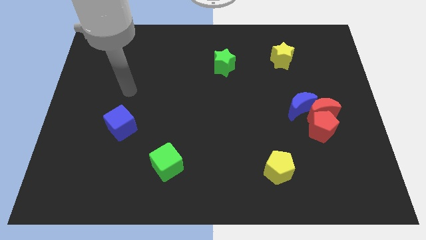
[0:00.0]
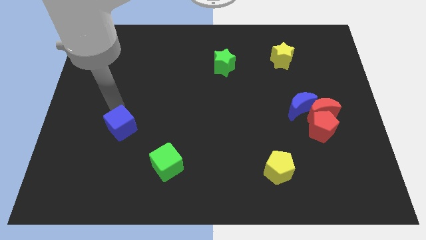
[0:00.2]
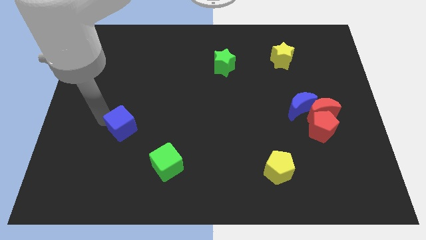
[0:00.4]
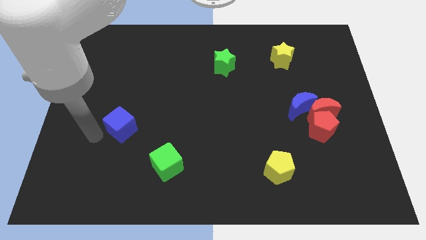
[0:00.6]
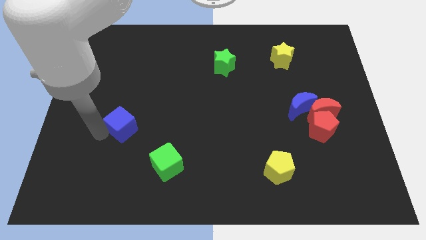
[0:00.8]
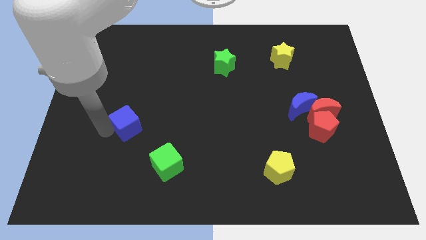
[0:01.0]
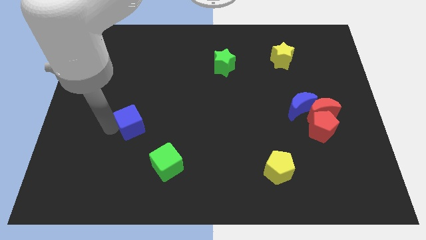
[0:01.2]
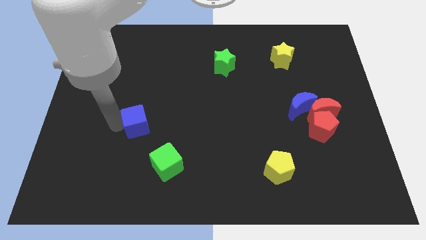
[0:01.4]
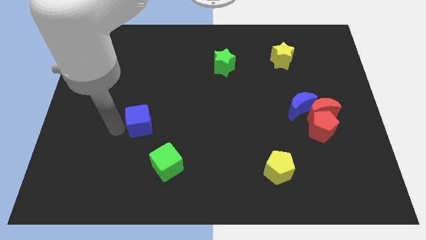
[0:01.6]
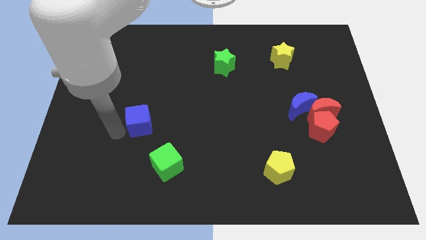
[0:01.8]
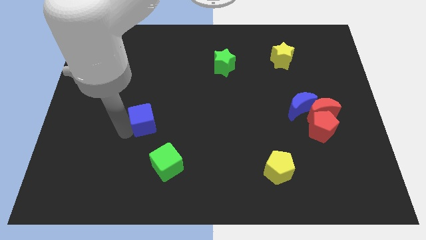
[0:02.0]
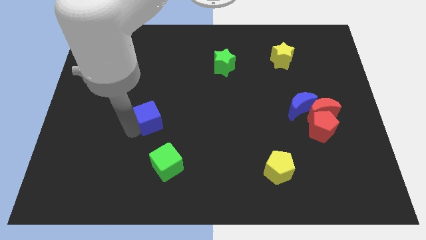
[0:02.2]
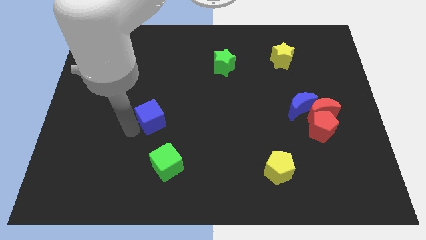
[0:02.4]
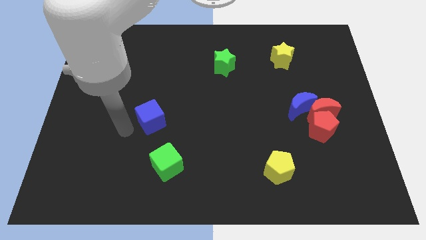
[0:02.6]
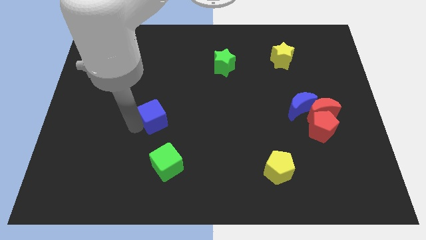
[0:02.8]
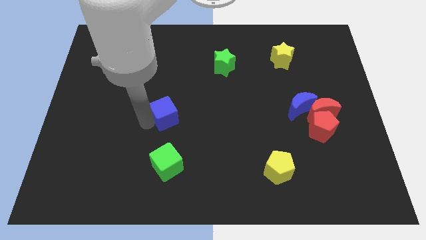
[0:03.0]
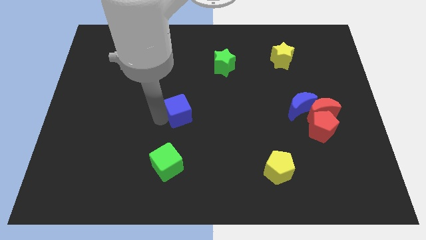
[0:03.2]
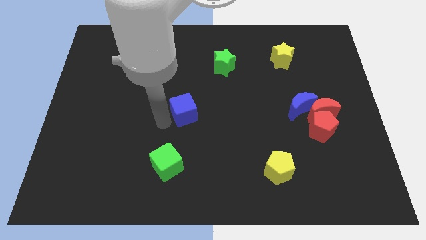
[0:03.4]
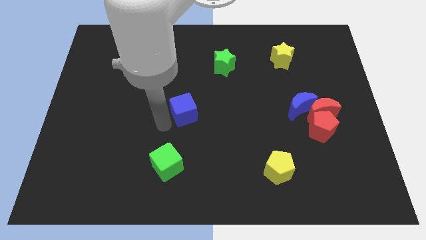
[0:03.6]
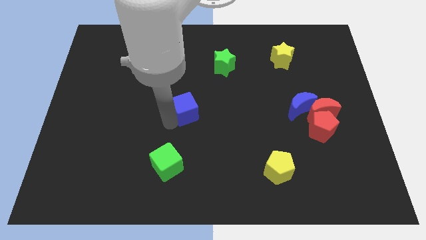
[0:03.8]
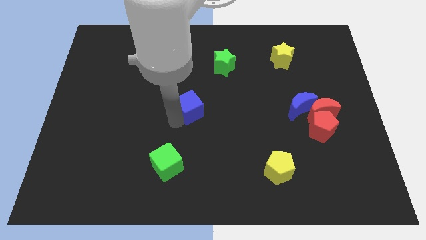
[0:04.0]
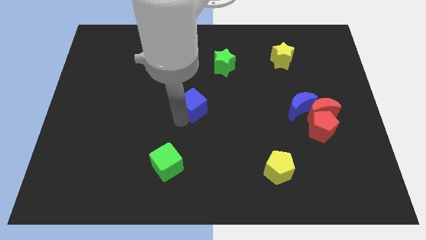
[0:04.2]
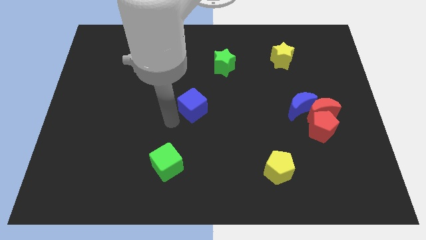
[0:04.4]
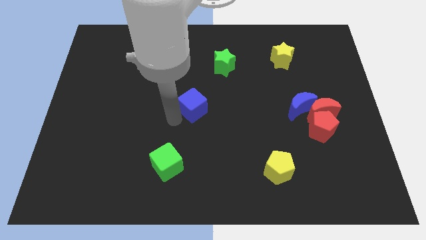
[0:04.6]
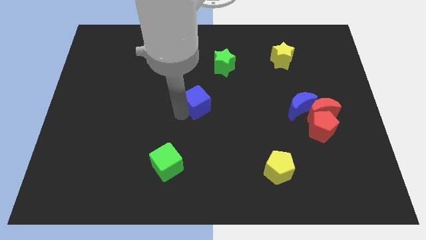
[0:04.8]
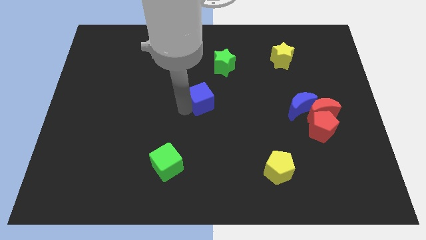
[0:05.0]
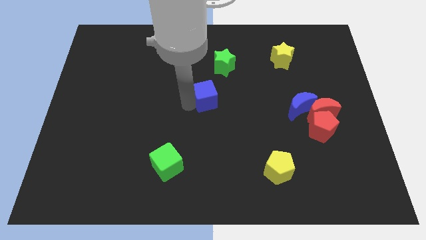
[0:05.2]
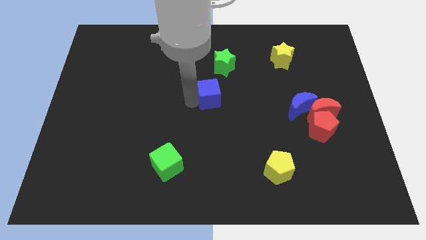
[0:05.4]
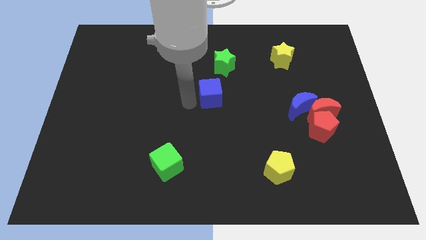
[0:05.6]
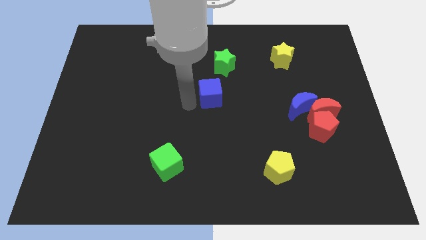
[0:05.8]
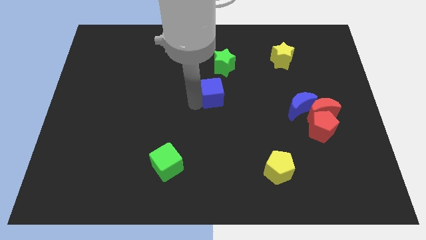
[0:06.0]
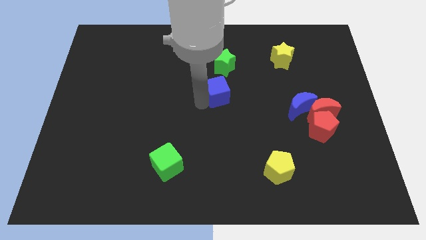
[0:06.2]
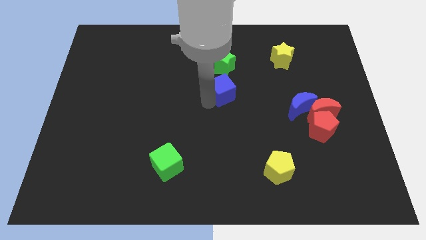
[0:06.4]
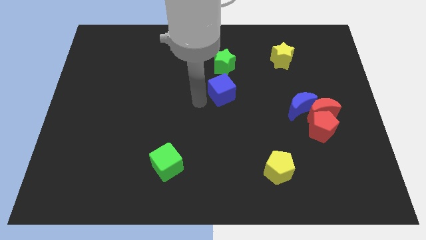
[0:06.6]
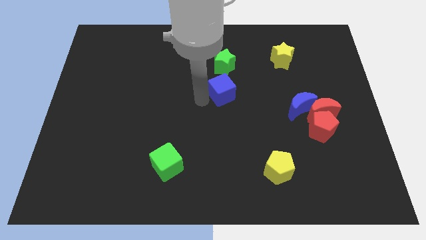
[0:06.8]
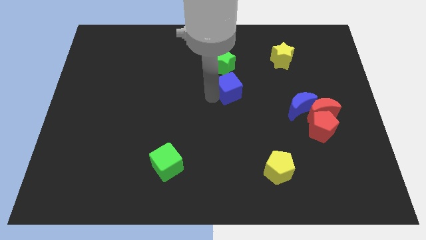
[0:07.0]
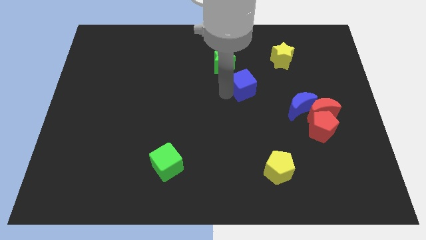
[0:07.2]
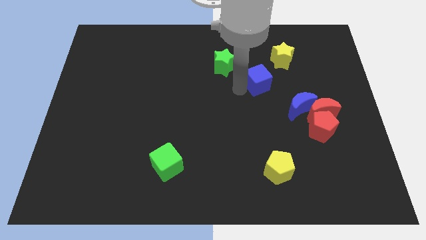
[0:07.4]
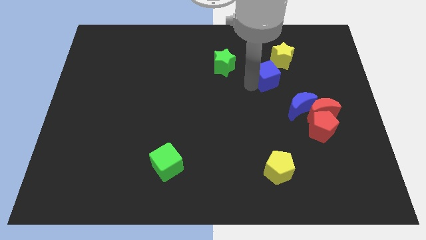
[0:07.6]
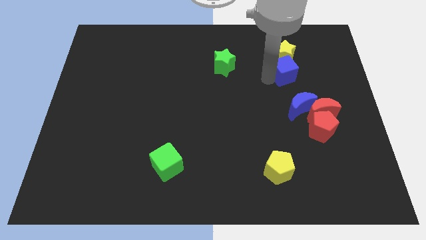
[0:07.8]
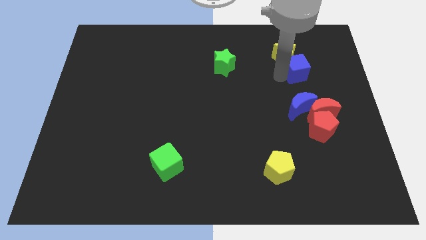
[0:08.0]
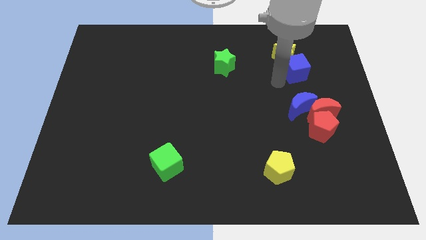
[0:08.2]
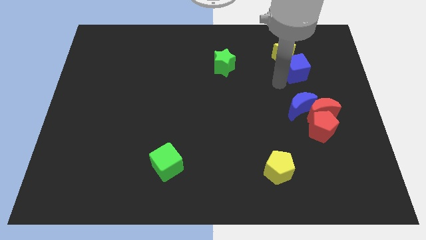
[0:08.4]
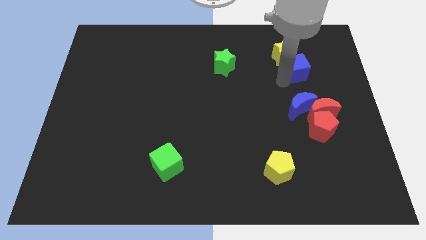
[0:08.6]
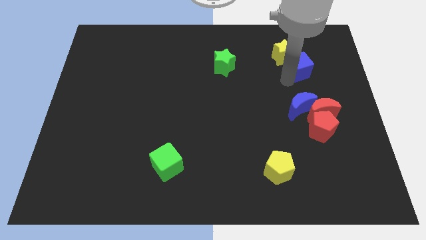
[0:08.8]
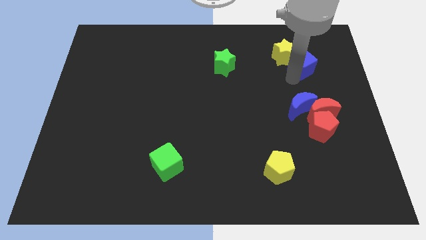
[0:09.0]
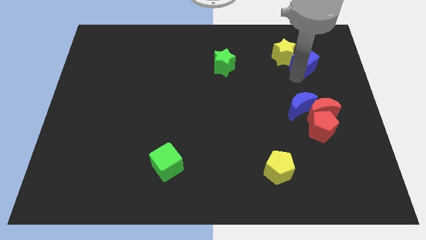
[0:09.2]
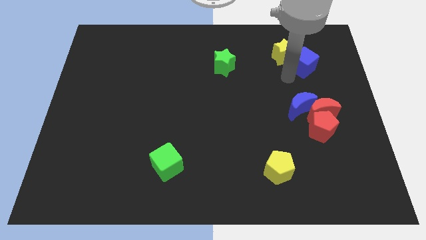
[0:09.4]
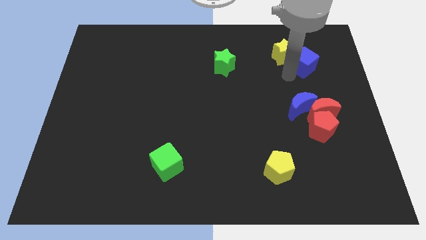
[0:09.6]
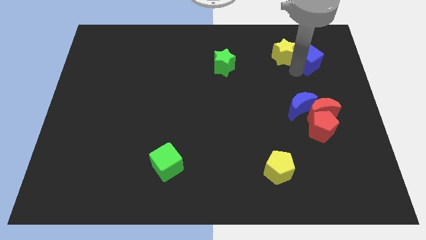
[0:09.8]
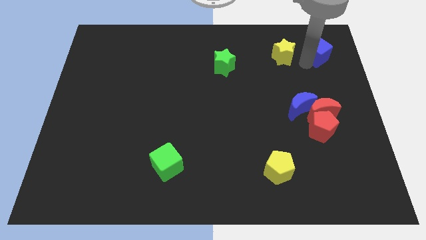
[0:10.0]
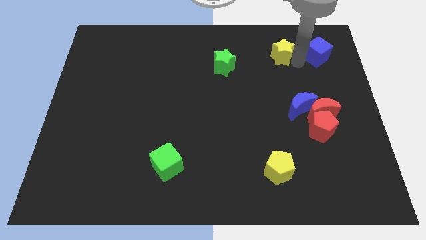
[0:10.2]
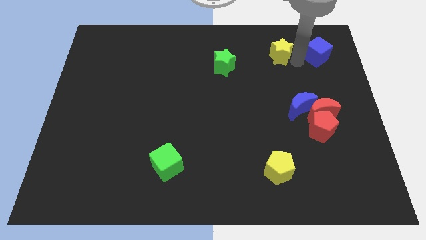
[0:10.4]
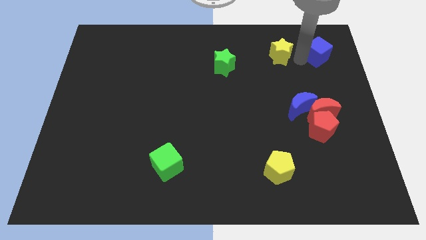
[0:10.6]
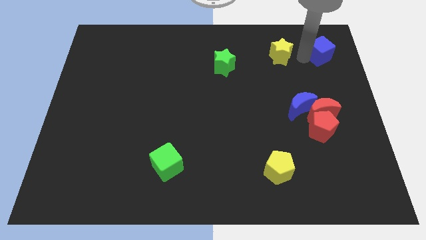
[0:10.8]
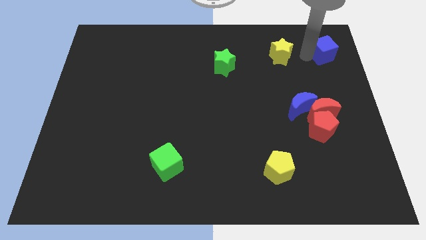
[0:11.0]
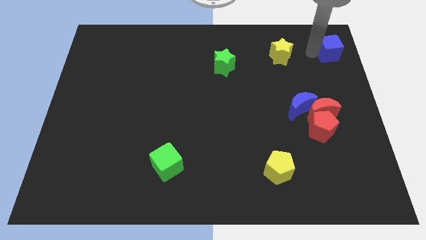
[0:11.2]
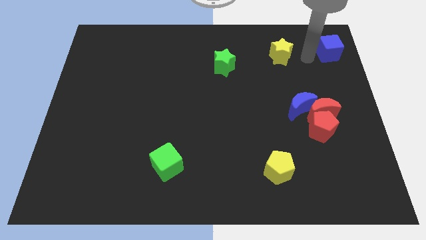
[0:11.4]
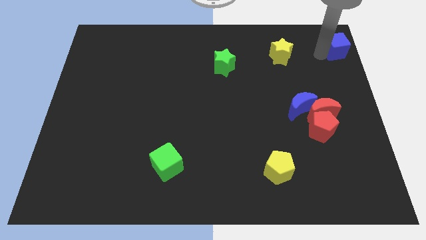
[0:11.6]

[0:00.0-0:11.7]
push the blue cube to the top right corner

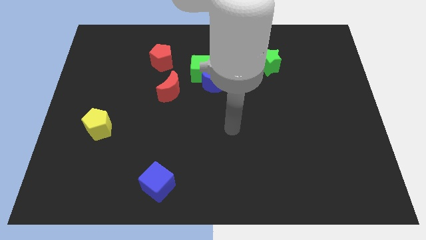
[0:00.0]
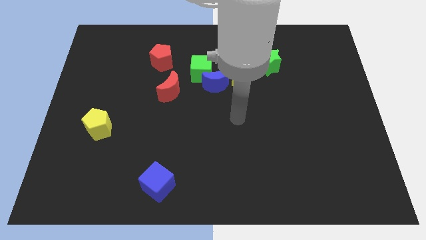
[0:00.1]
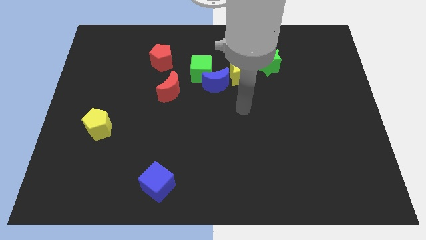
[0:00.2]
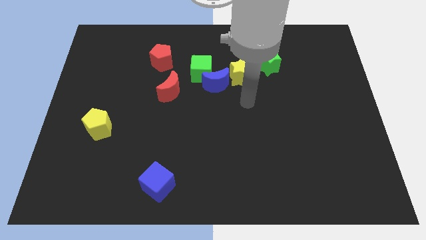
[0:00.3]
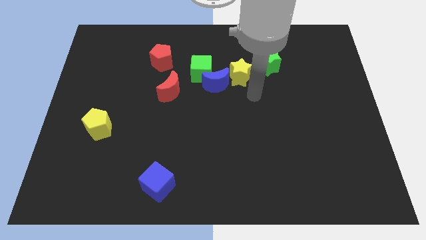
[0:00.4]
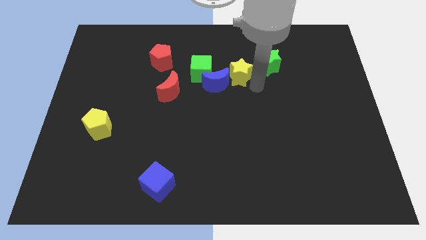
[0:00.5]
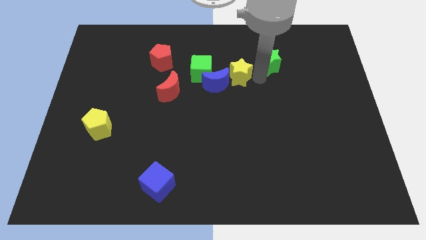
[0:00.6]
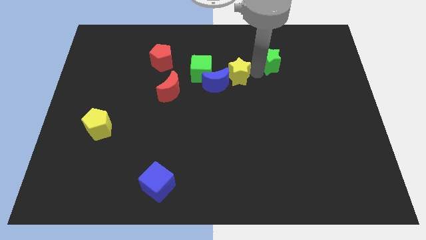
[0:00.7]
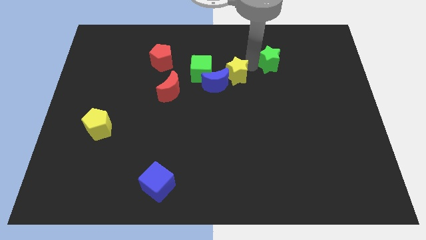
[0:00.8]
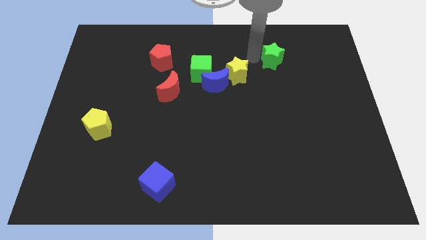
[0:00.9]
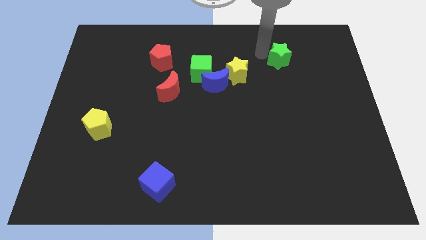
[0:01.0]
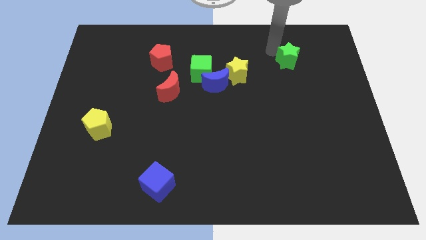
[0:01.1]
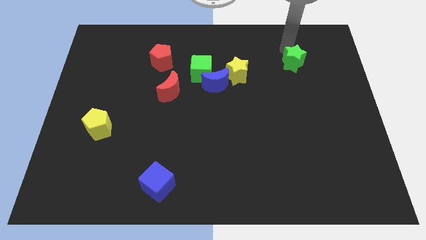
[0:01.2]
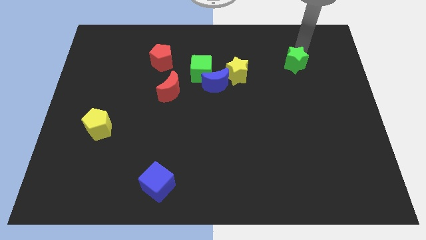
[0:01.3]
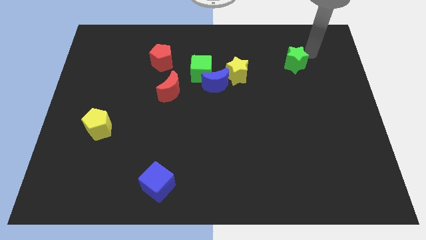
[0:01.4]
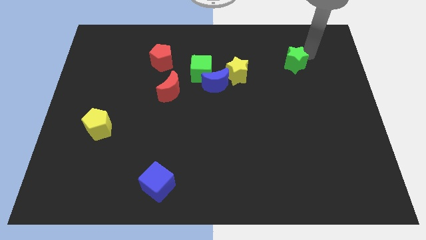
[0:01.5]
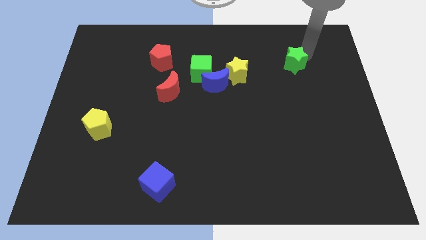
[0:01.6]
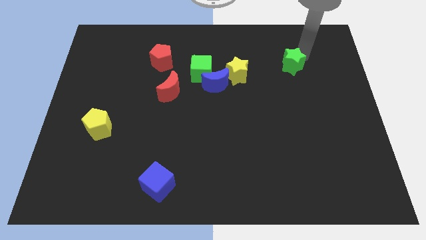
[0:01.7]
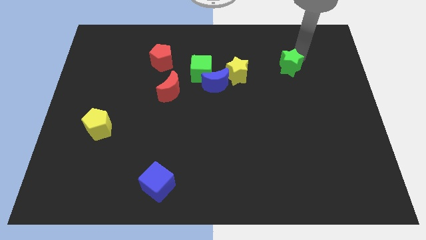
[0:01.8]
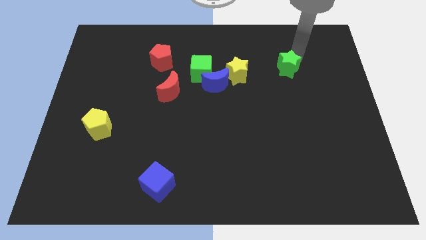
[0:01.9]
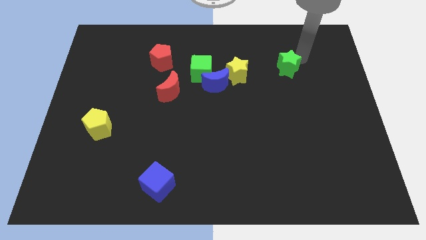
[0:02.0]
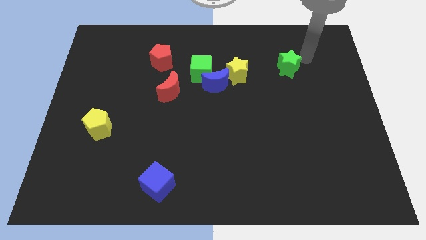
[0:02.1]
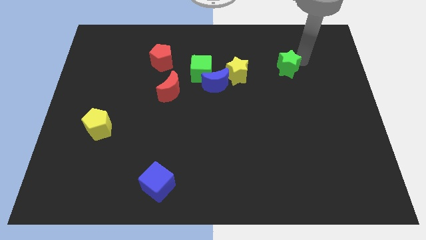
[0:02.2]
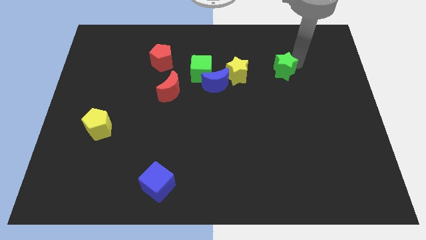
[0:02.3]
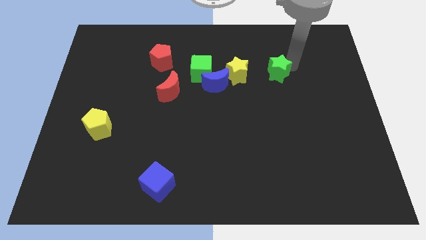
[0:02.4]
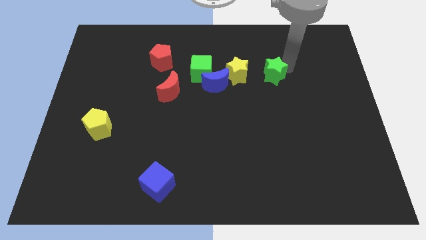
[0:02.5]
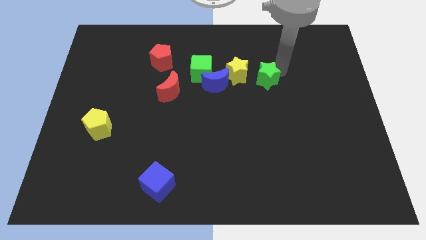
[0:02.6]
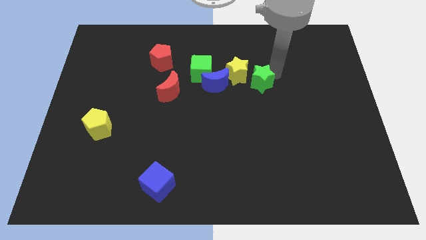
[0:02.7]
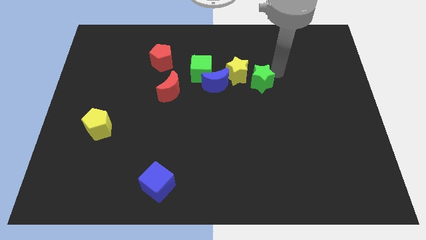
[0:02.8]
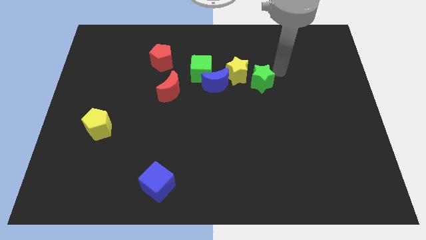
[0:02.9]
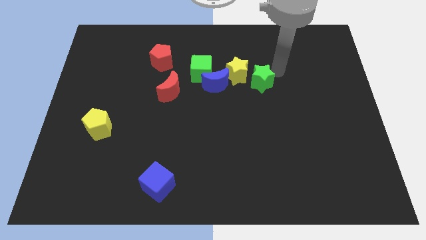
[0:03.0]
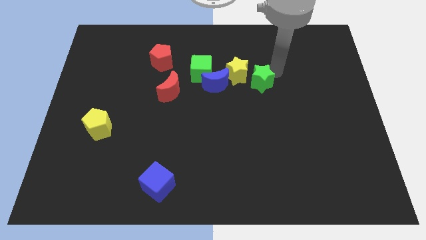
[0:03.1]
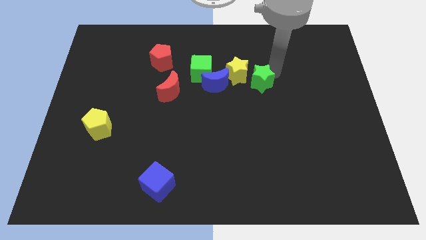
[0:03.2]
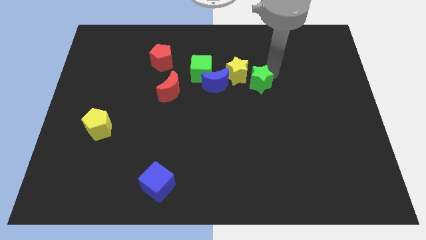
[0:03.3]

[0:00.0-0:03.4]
slide the green star to the middle of the board
